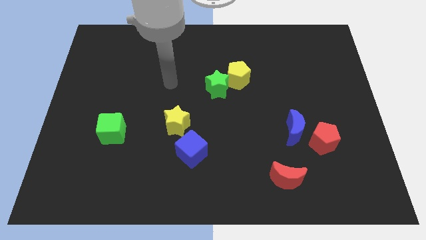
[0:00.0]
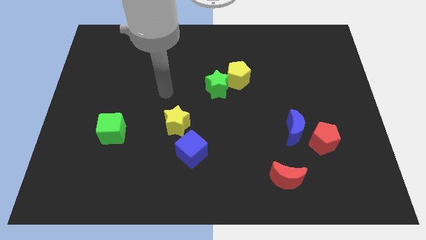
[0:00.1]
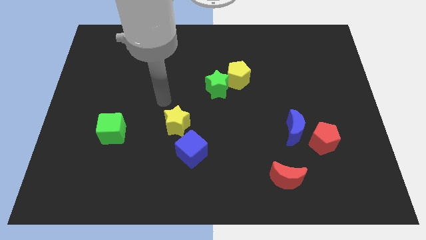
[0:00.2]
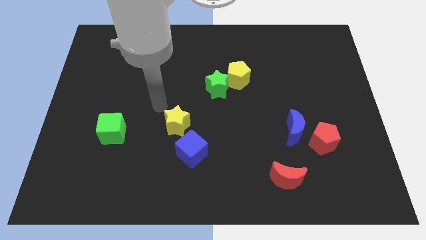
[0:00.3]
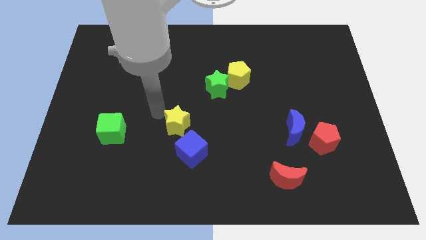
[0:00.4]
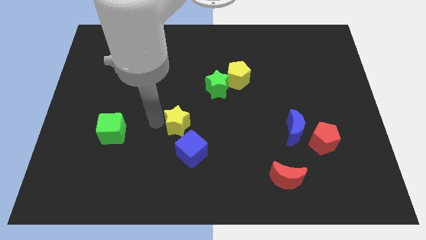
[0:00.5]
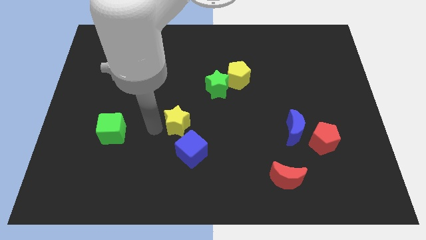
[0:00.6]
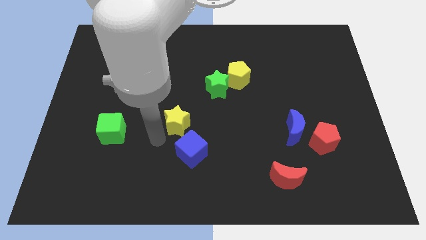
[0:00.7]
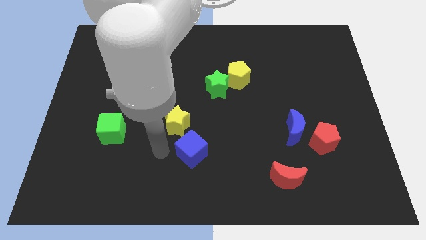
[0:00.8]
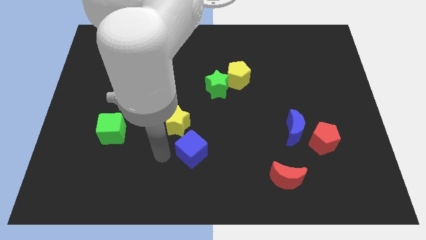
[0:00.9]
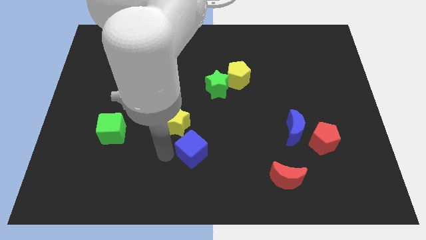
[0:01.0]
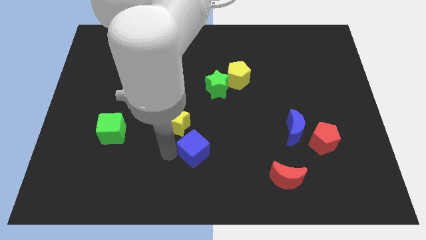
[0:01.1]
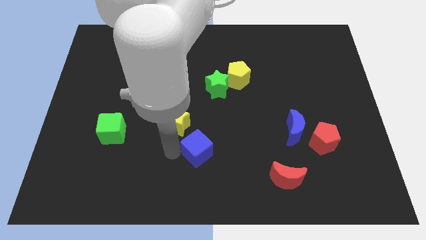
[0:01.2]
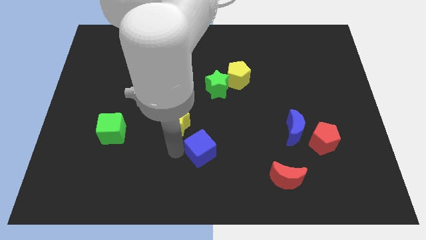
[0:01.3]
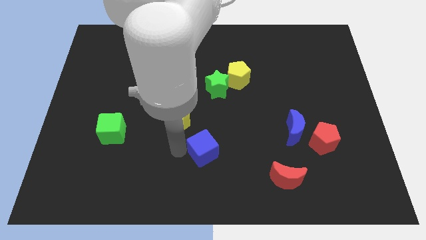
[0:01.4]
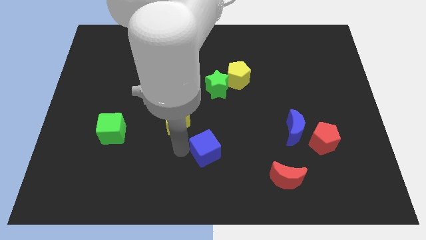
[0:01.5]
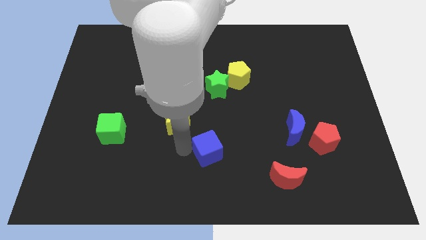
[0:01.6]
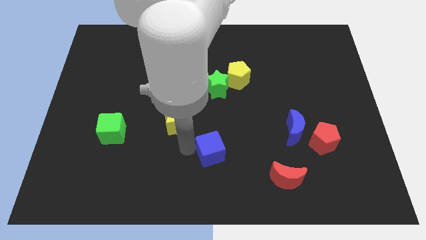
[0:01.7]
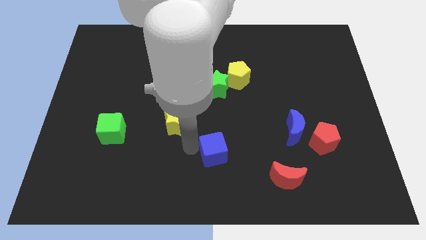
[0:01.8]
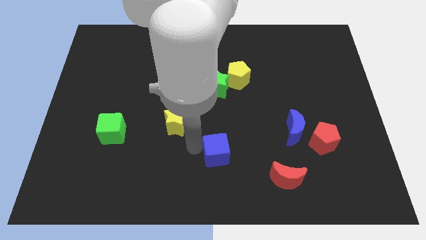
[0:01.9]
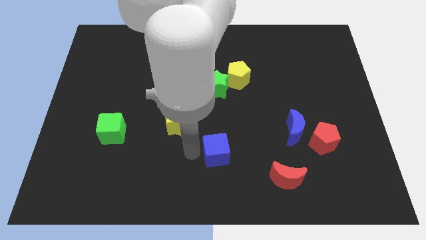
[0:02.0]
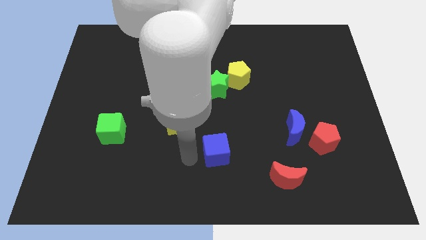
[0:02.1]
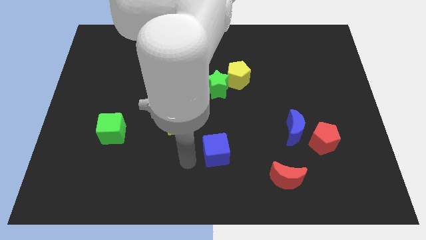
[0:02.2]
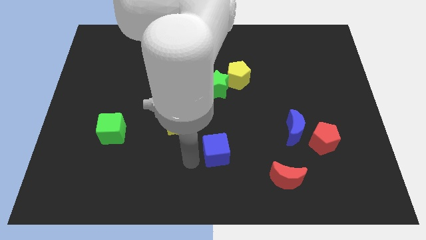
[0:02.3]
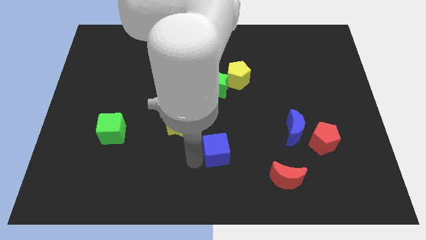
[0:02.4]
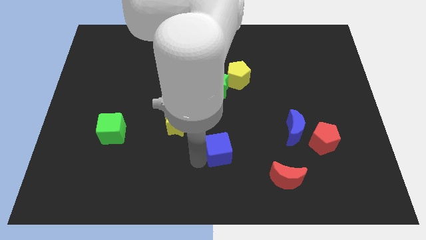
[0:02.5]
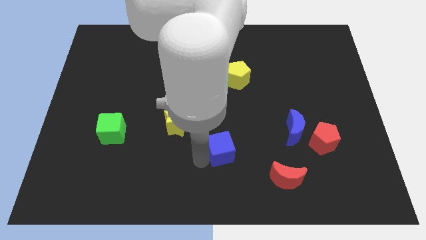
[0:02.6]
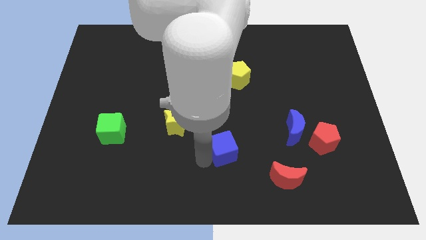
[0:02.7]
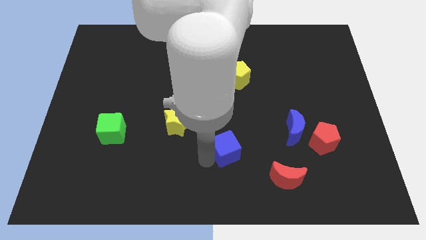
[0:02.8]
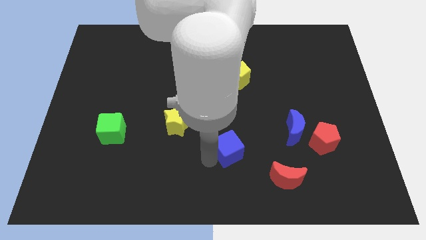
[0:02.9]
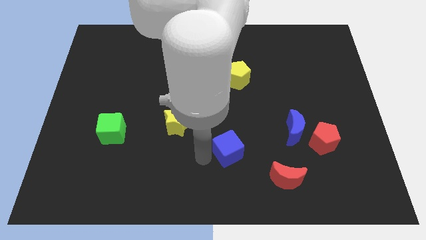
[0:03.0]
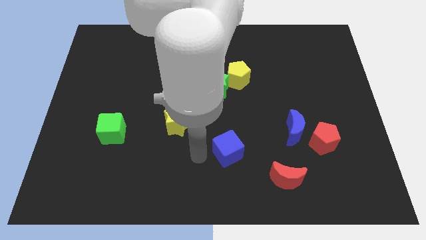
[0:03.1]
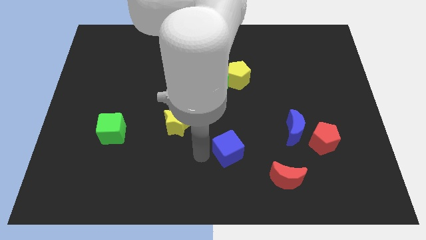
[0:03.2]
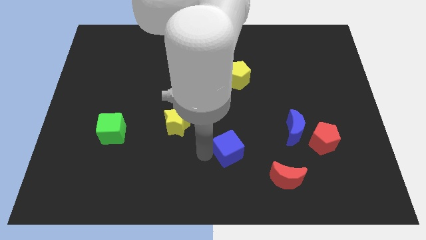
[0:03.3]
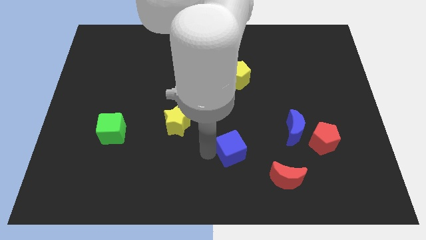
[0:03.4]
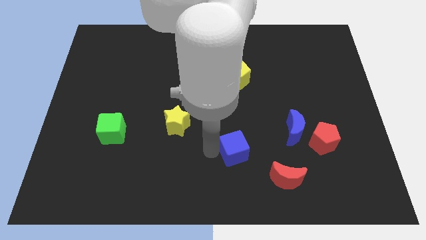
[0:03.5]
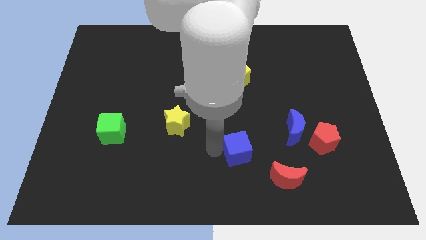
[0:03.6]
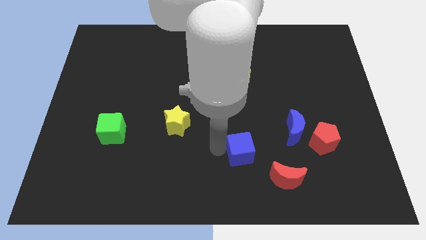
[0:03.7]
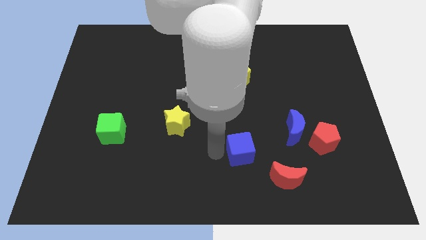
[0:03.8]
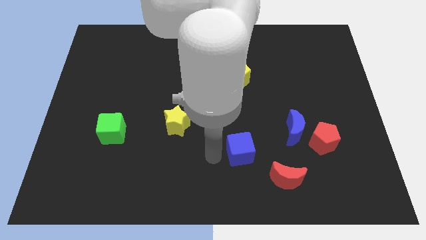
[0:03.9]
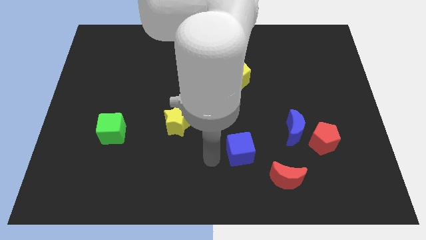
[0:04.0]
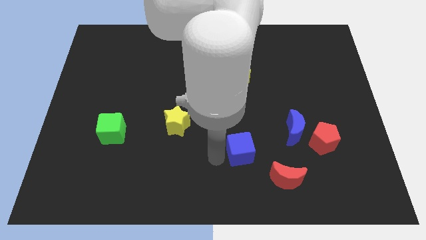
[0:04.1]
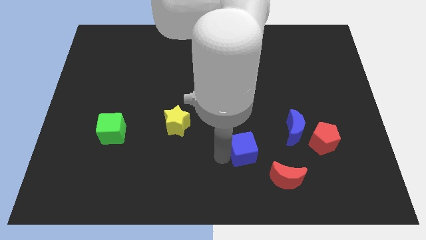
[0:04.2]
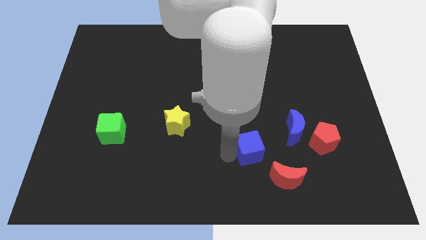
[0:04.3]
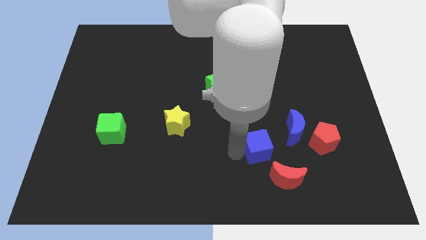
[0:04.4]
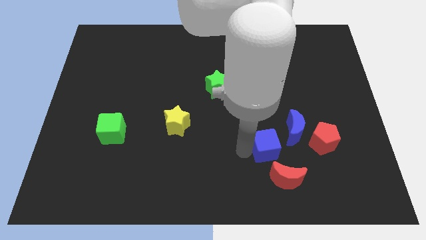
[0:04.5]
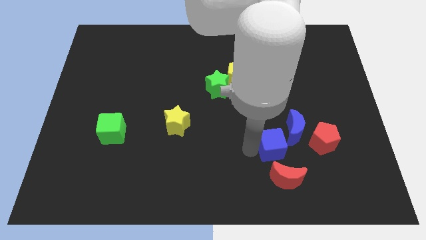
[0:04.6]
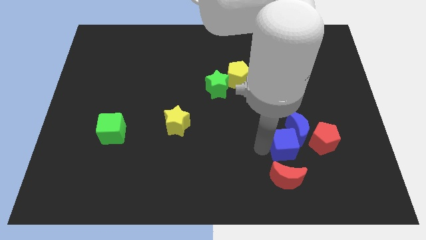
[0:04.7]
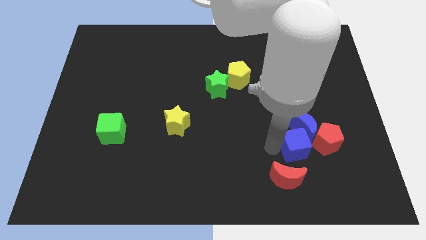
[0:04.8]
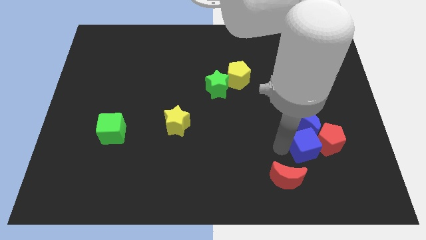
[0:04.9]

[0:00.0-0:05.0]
put the blue cube towards the red pentagon
